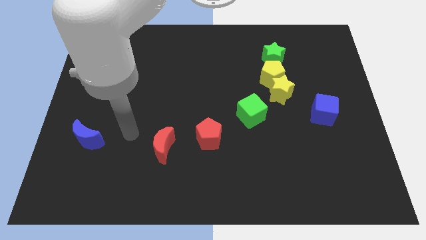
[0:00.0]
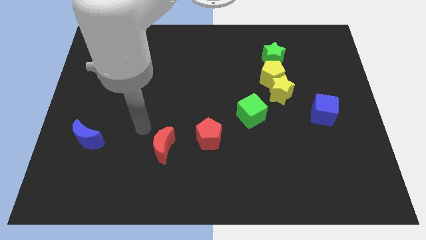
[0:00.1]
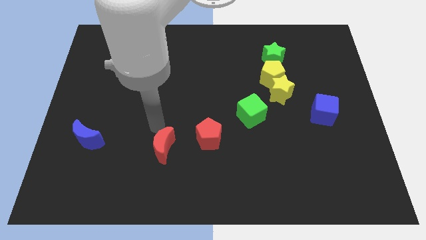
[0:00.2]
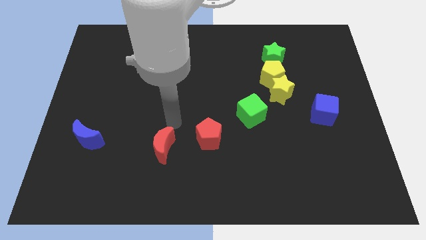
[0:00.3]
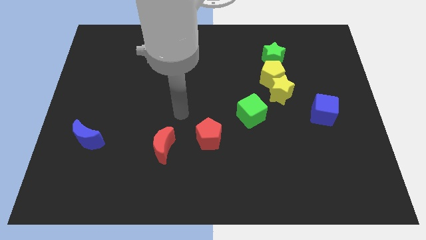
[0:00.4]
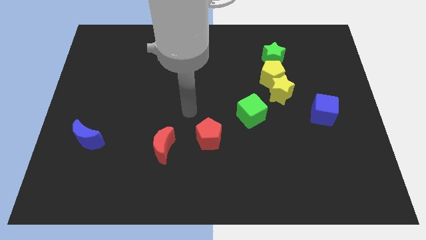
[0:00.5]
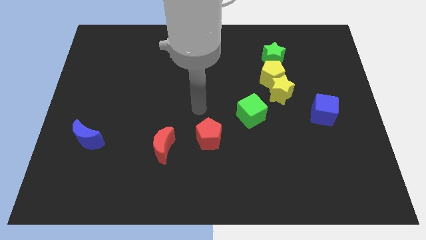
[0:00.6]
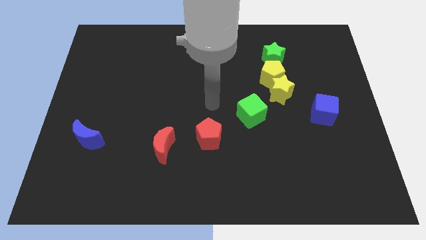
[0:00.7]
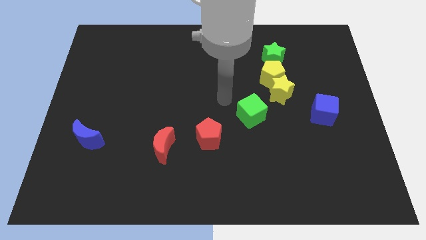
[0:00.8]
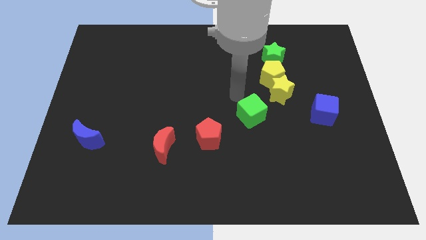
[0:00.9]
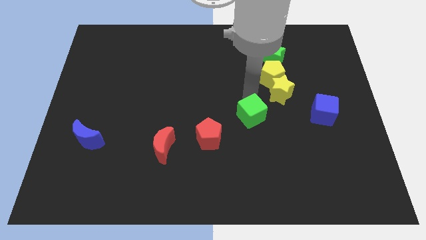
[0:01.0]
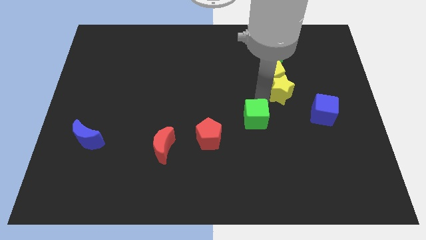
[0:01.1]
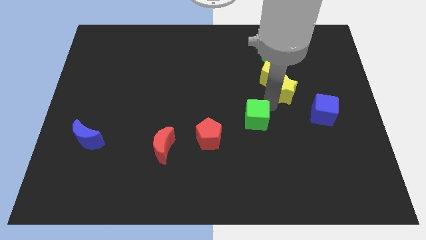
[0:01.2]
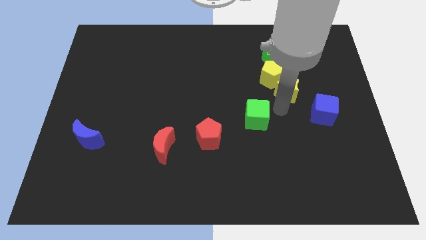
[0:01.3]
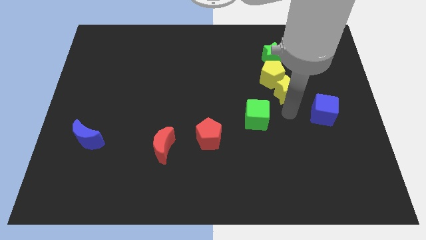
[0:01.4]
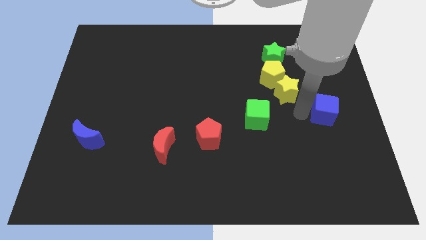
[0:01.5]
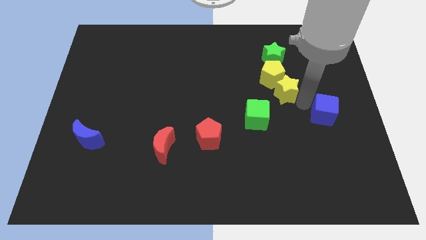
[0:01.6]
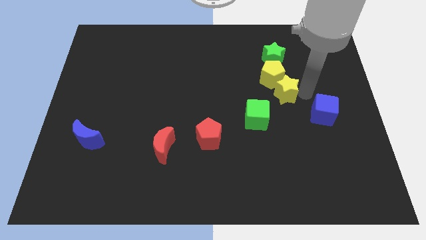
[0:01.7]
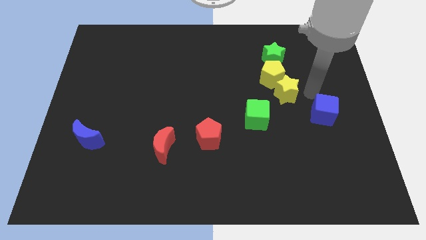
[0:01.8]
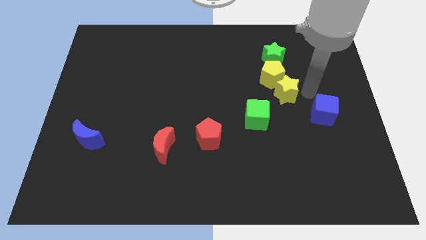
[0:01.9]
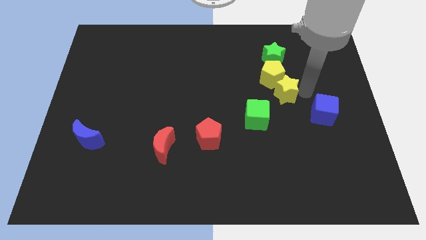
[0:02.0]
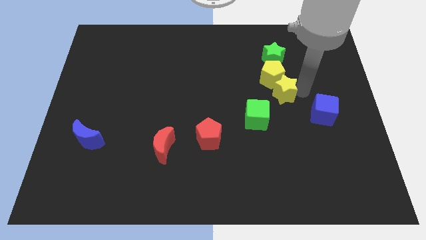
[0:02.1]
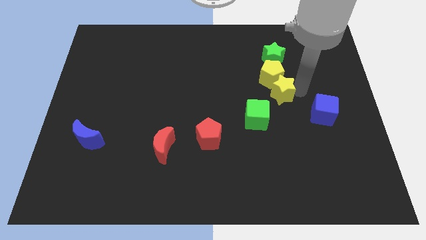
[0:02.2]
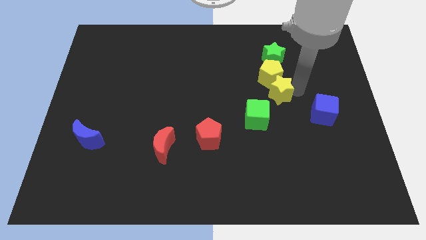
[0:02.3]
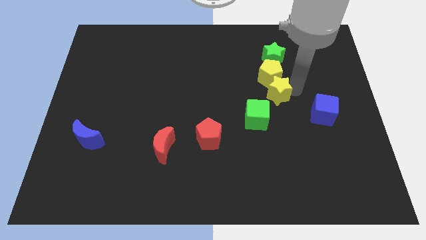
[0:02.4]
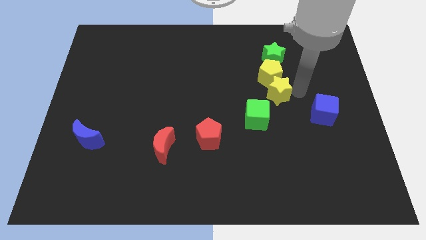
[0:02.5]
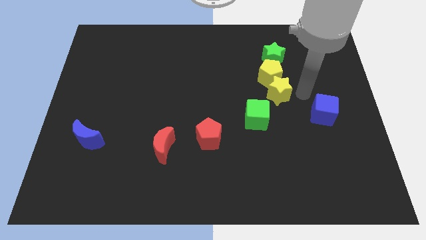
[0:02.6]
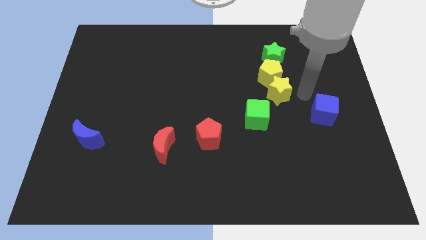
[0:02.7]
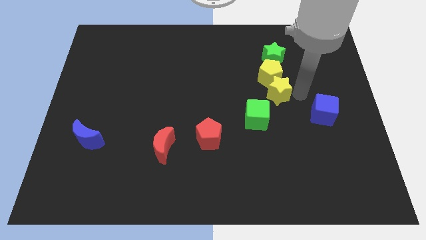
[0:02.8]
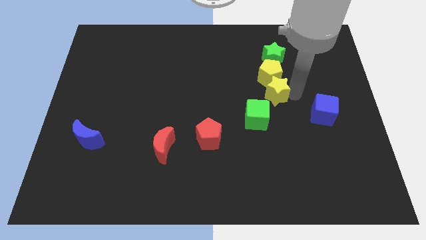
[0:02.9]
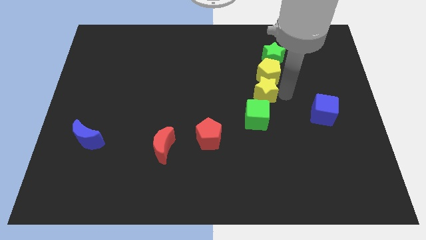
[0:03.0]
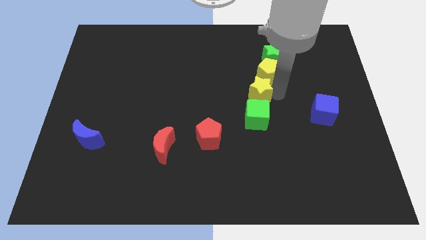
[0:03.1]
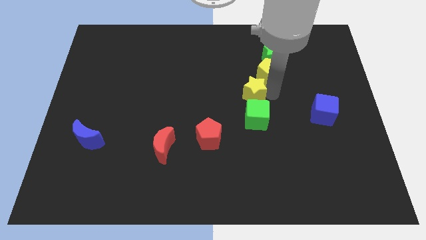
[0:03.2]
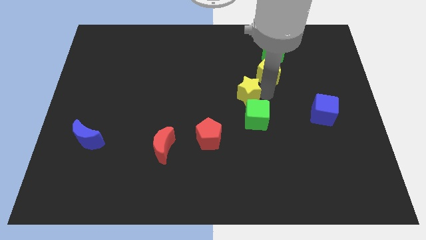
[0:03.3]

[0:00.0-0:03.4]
slide the yellow star slightly to the left

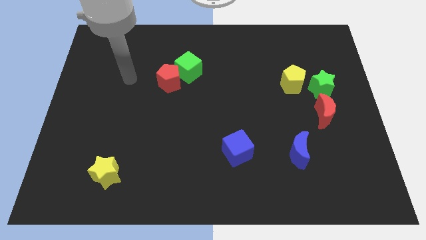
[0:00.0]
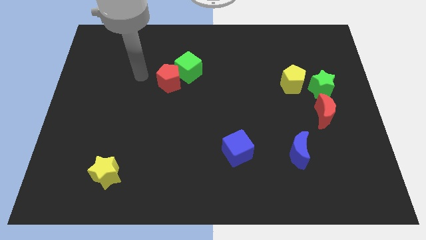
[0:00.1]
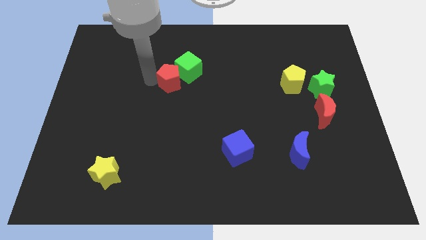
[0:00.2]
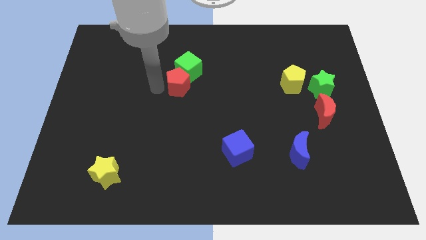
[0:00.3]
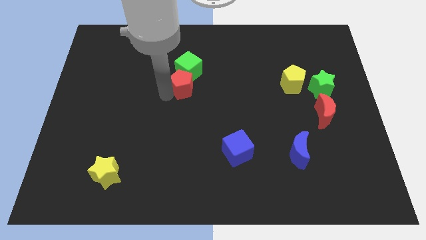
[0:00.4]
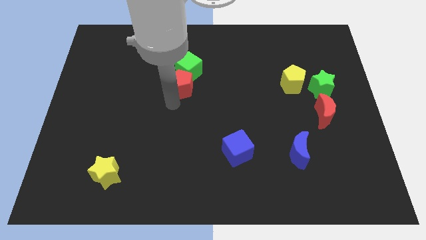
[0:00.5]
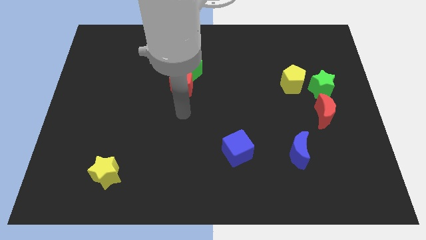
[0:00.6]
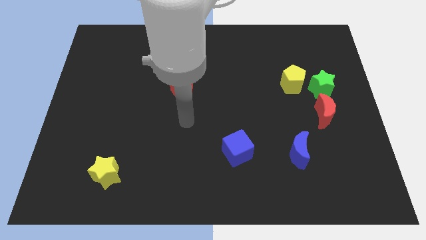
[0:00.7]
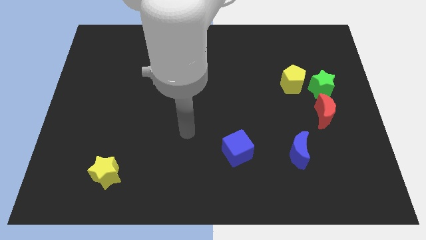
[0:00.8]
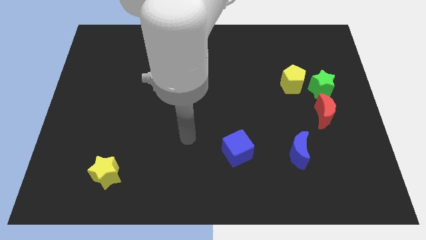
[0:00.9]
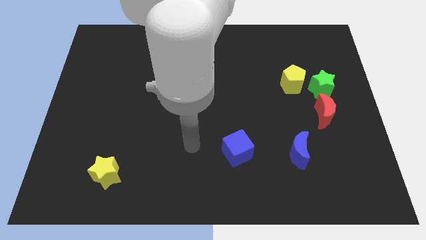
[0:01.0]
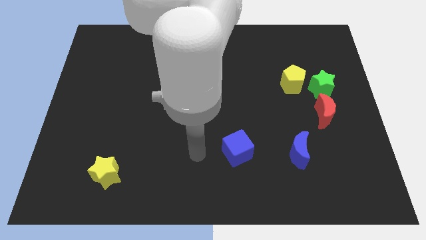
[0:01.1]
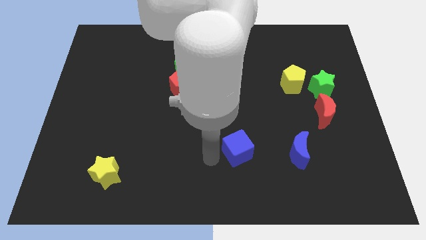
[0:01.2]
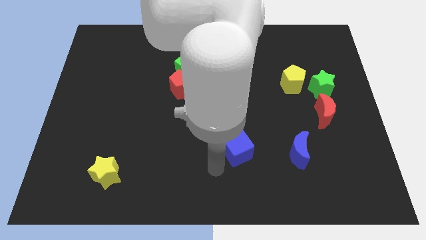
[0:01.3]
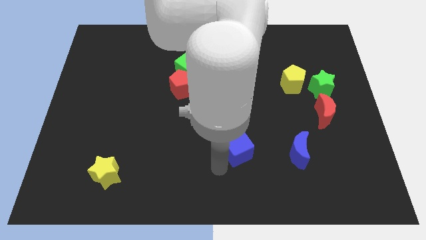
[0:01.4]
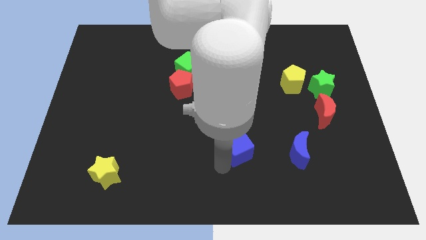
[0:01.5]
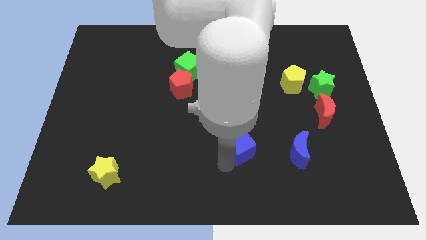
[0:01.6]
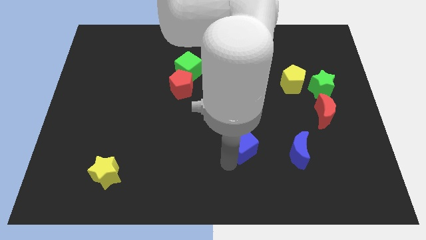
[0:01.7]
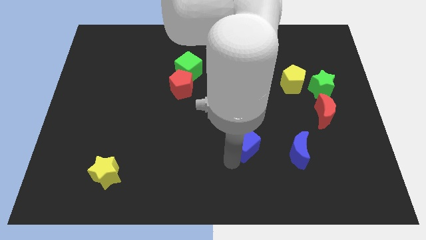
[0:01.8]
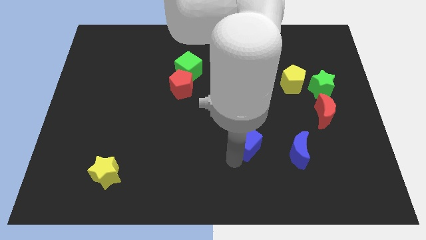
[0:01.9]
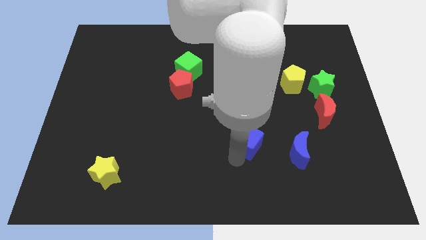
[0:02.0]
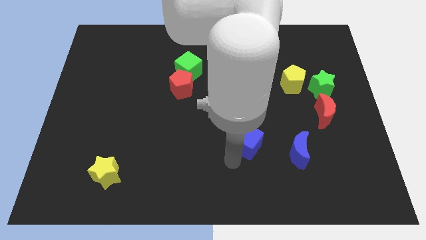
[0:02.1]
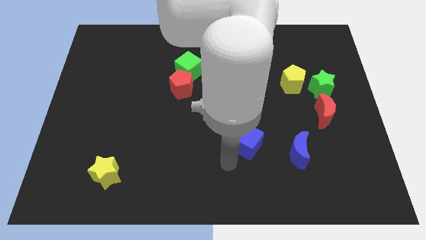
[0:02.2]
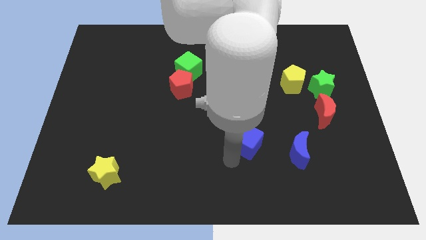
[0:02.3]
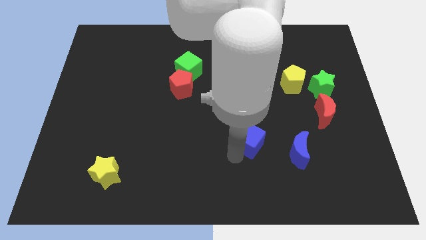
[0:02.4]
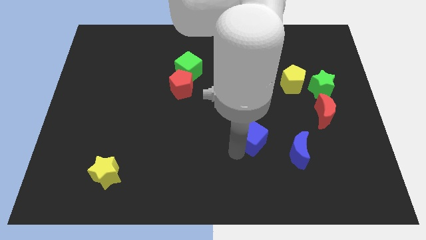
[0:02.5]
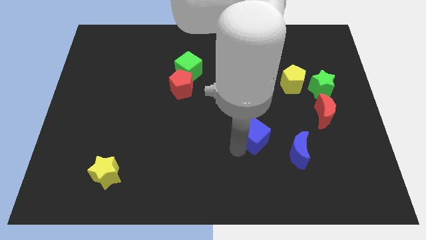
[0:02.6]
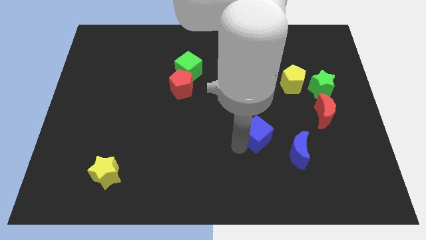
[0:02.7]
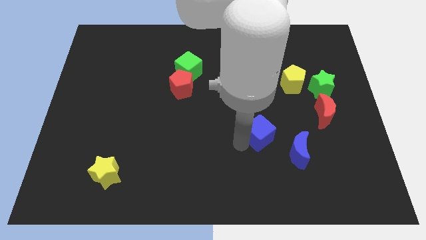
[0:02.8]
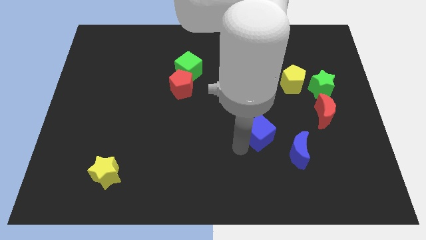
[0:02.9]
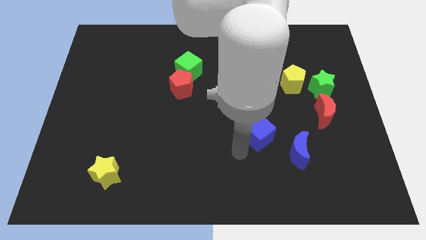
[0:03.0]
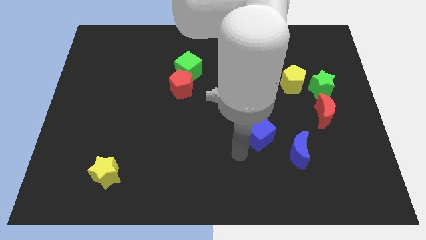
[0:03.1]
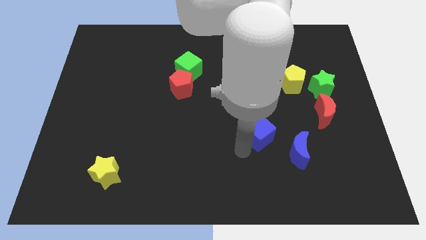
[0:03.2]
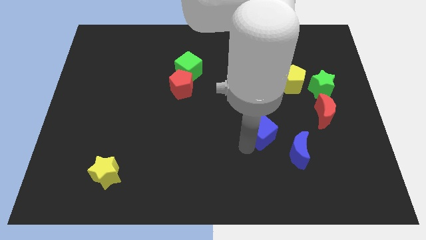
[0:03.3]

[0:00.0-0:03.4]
push the blue cube a little up and then right

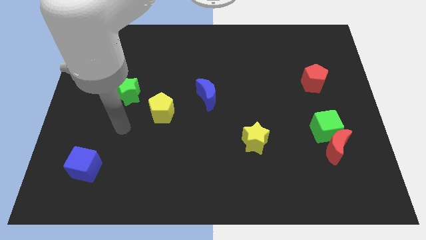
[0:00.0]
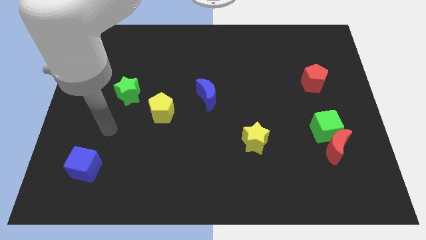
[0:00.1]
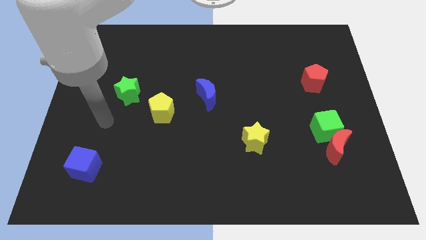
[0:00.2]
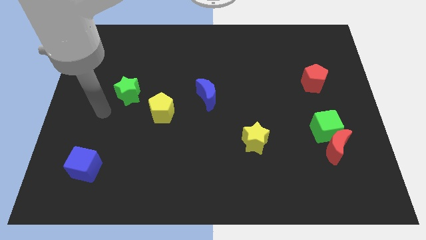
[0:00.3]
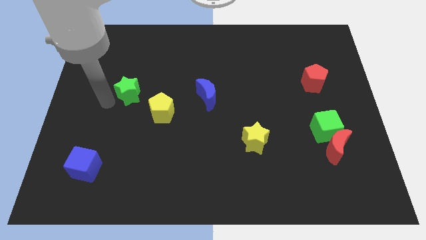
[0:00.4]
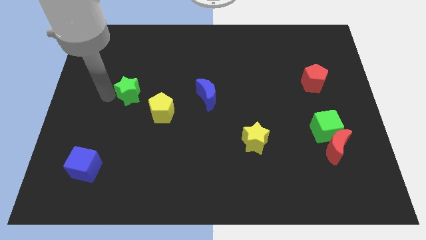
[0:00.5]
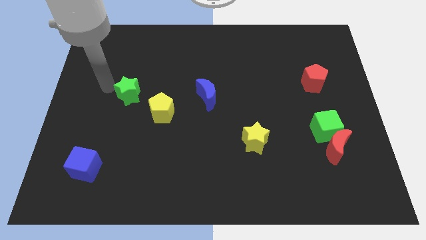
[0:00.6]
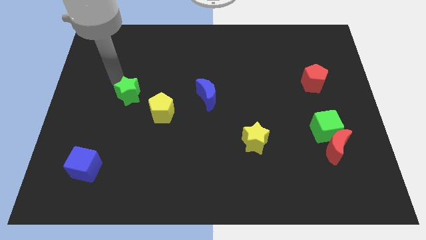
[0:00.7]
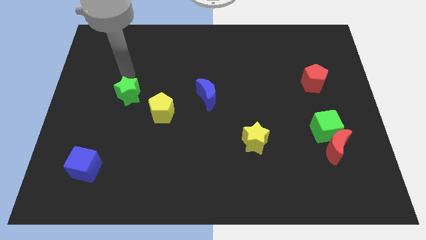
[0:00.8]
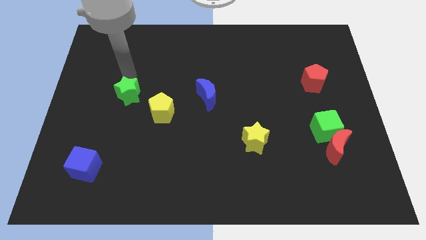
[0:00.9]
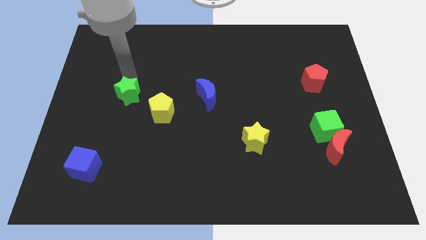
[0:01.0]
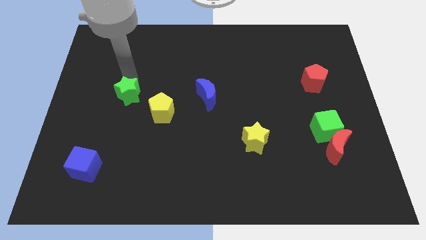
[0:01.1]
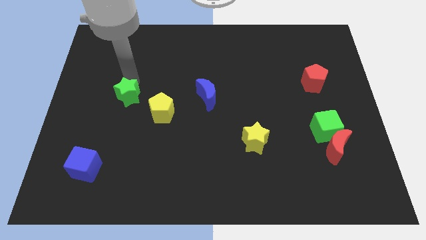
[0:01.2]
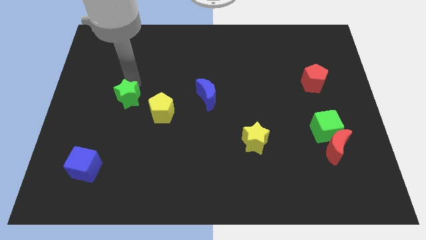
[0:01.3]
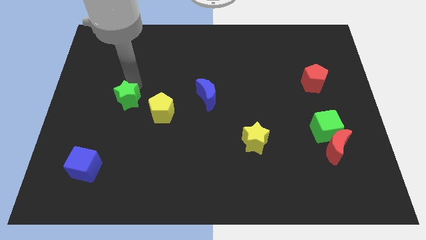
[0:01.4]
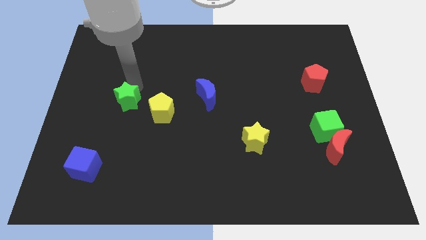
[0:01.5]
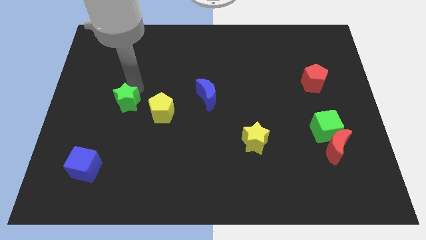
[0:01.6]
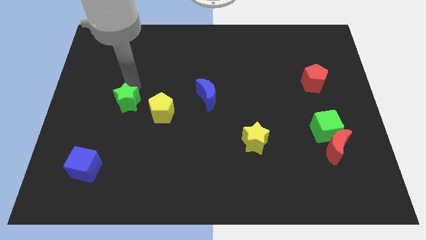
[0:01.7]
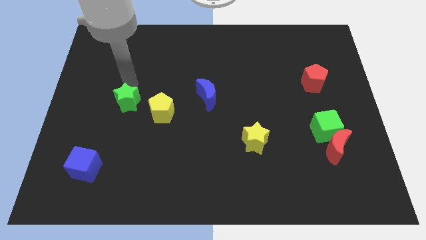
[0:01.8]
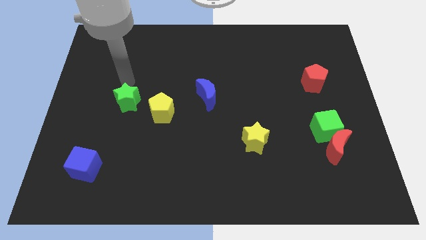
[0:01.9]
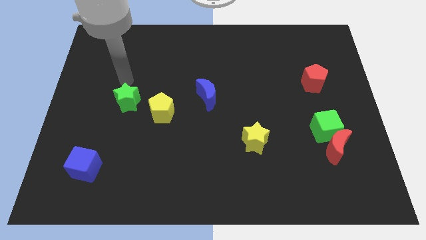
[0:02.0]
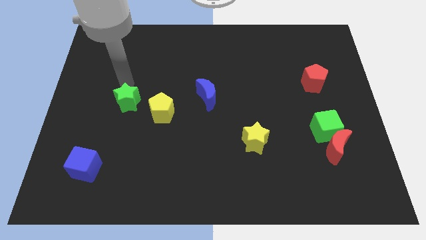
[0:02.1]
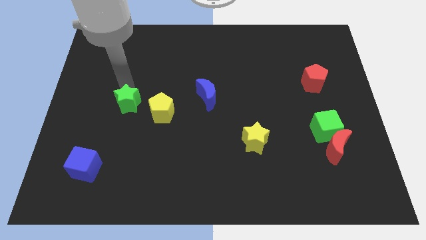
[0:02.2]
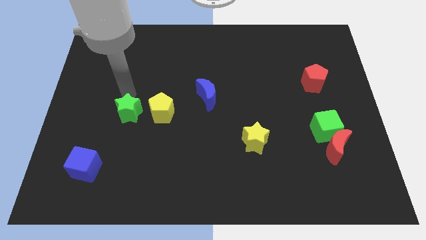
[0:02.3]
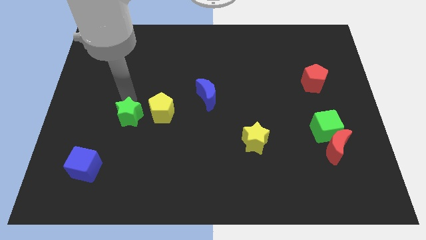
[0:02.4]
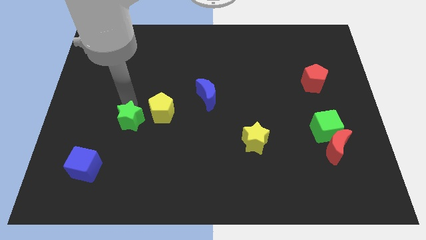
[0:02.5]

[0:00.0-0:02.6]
slightly slide the green star down
